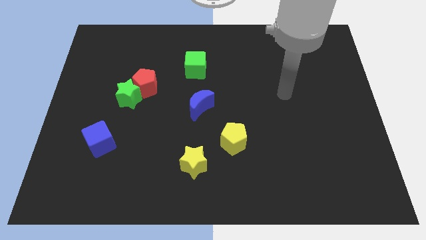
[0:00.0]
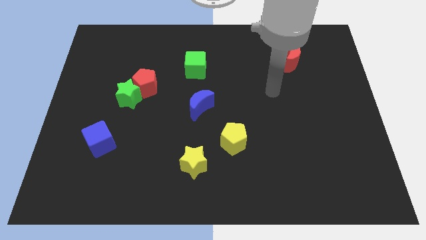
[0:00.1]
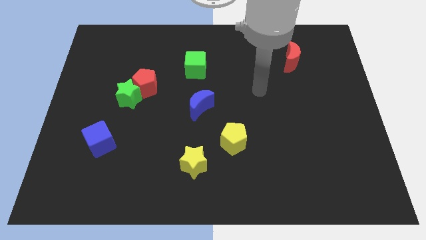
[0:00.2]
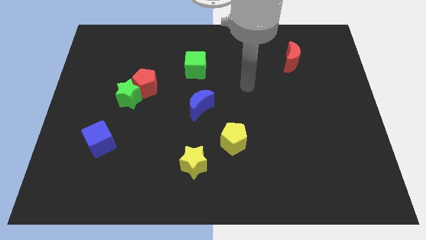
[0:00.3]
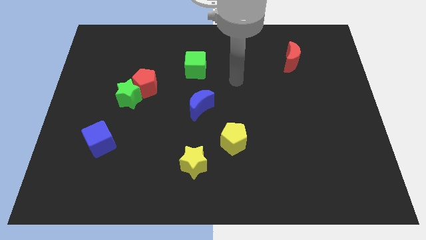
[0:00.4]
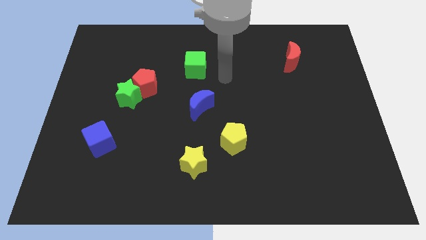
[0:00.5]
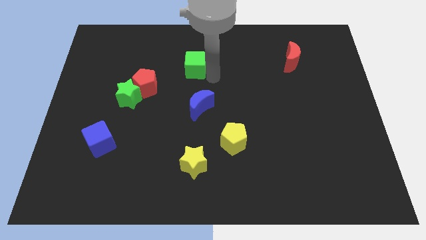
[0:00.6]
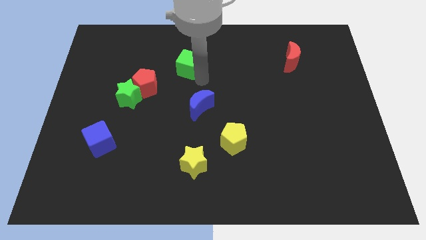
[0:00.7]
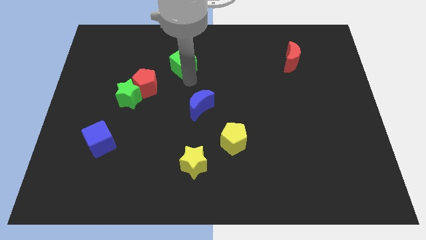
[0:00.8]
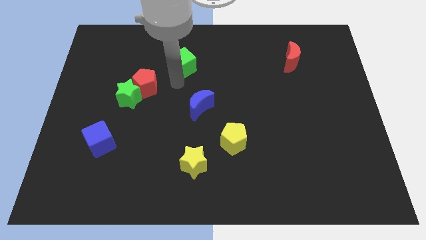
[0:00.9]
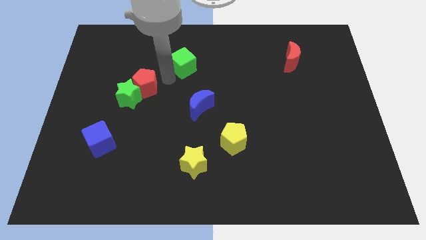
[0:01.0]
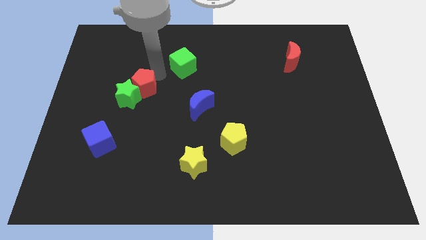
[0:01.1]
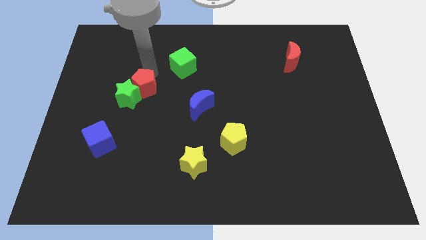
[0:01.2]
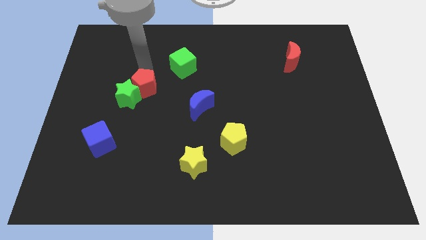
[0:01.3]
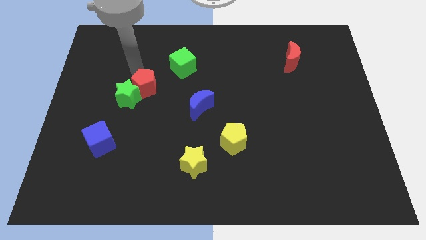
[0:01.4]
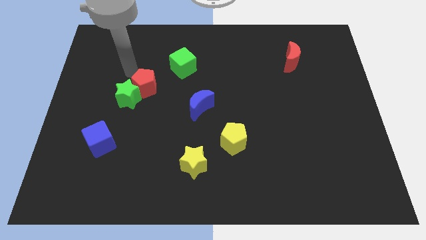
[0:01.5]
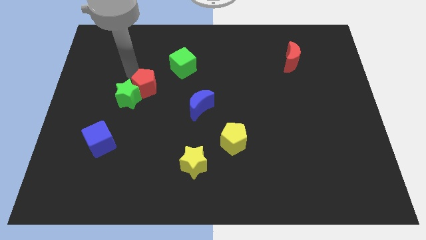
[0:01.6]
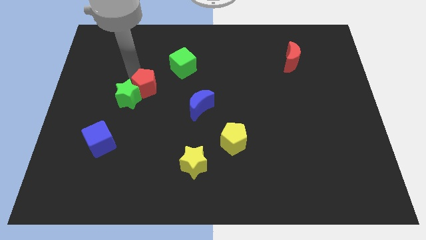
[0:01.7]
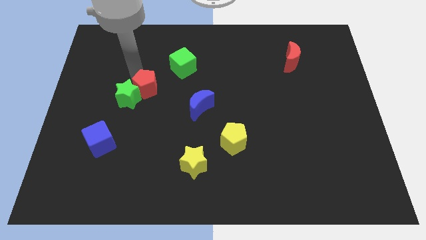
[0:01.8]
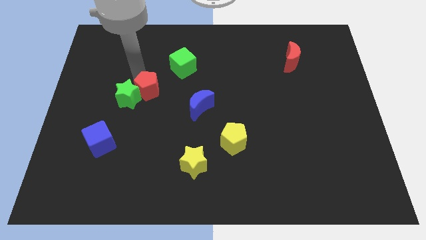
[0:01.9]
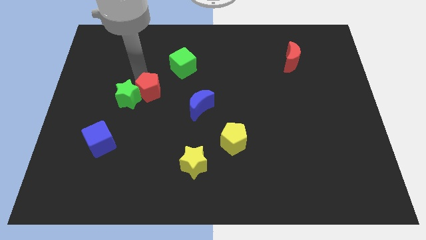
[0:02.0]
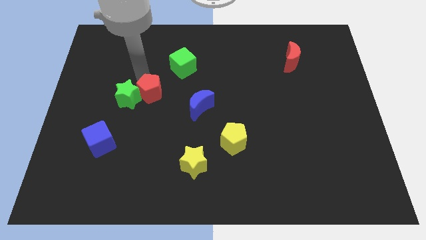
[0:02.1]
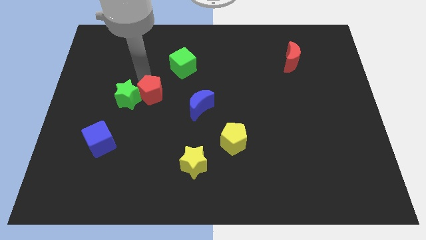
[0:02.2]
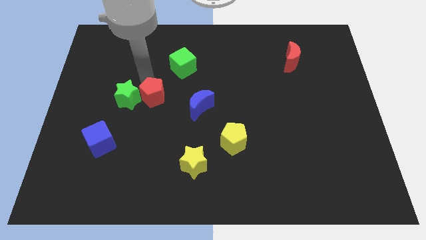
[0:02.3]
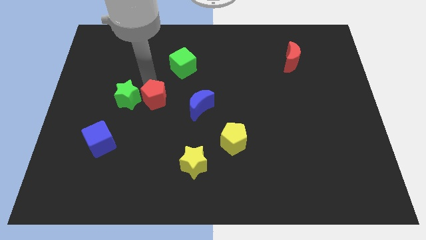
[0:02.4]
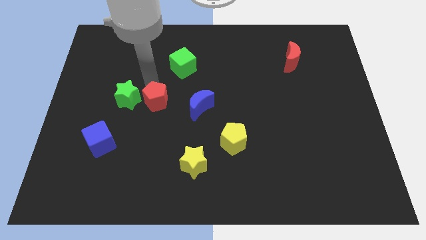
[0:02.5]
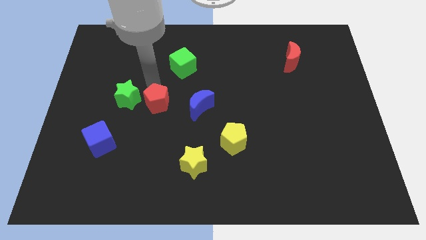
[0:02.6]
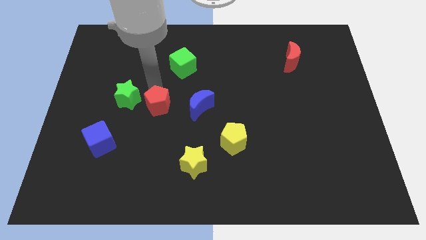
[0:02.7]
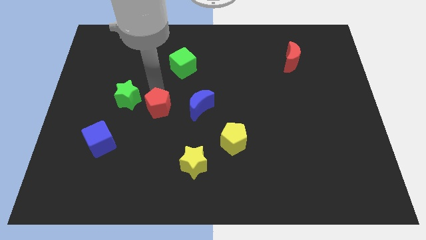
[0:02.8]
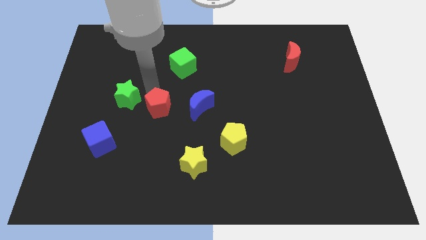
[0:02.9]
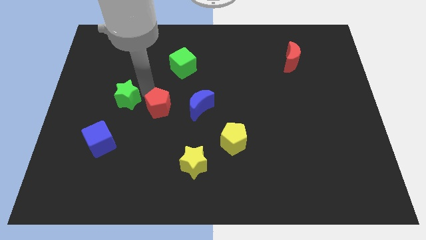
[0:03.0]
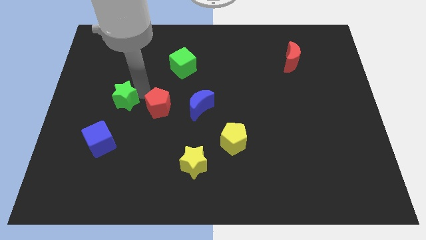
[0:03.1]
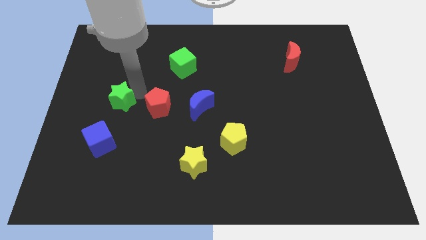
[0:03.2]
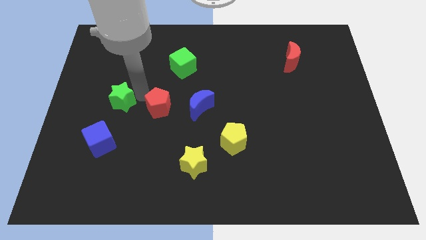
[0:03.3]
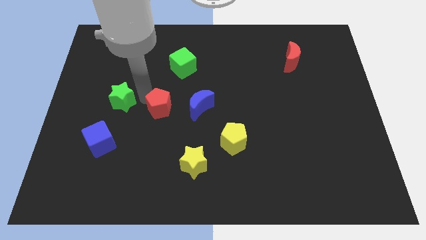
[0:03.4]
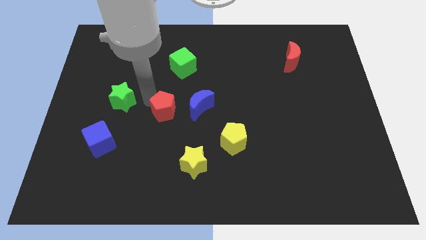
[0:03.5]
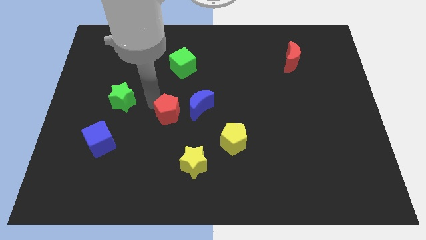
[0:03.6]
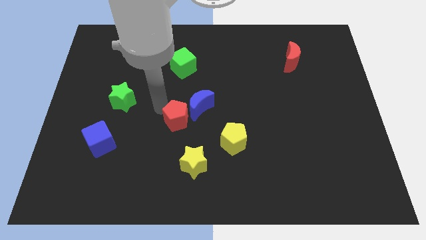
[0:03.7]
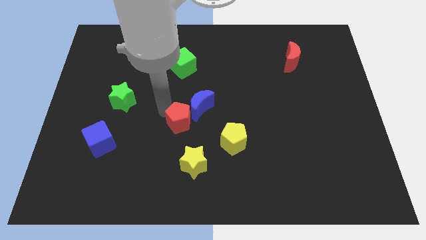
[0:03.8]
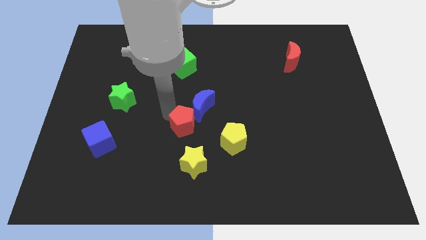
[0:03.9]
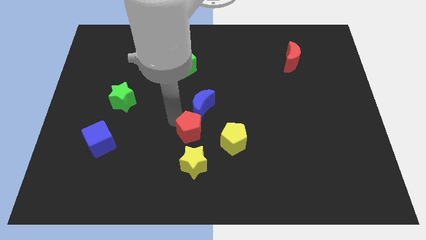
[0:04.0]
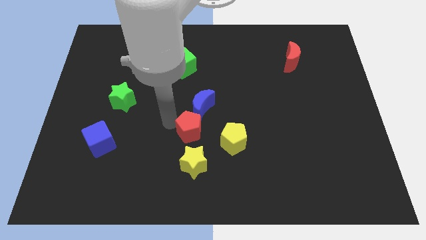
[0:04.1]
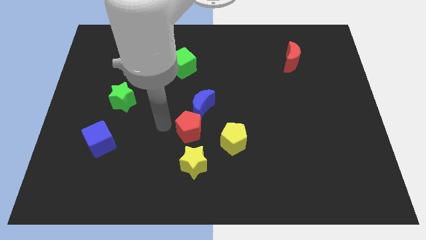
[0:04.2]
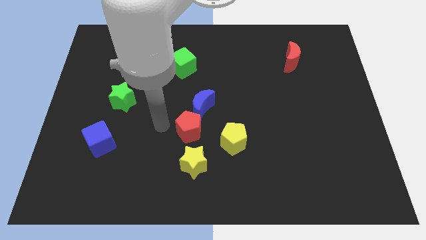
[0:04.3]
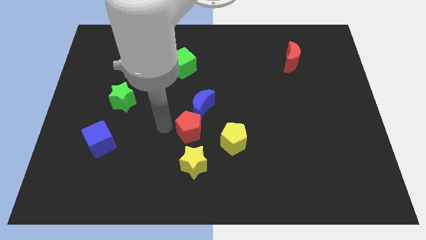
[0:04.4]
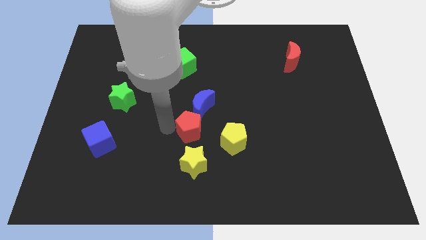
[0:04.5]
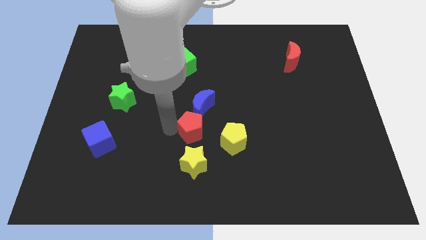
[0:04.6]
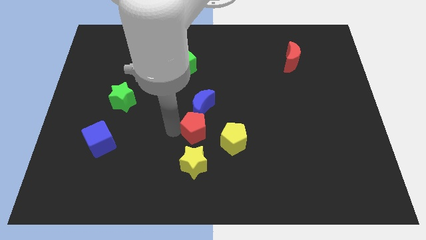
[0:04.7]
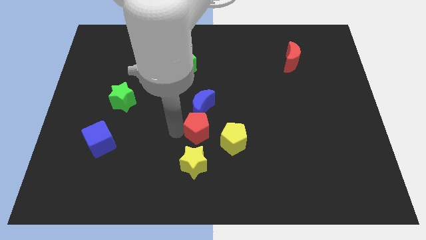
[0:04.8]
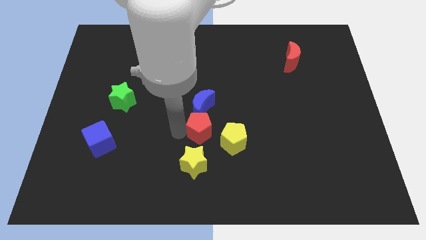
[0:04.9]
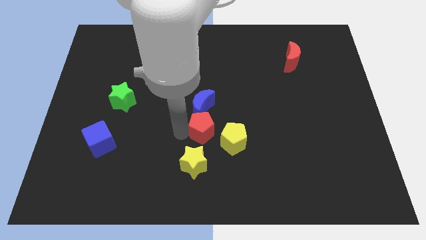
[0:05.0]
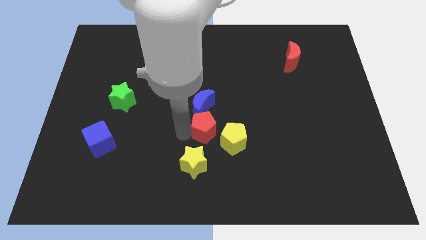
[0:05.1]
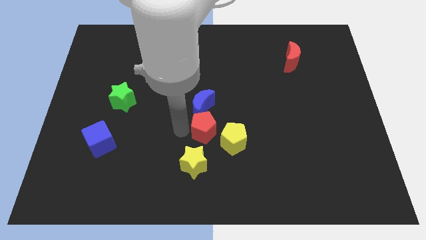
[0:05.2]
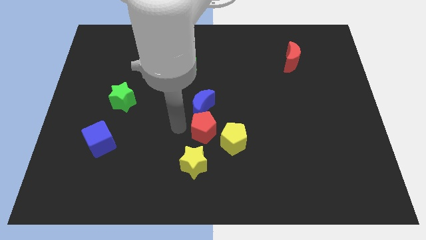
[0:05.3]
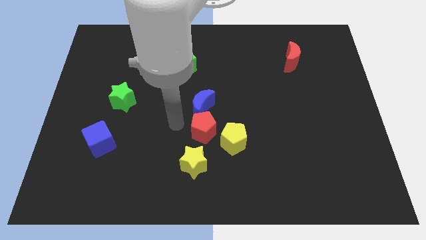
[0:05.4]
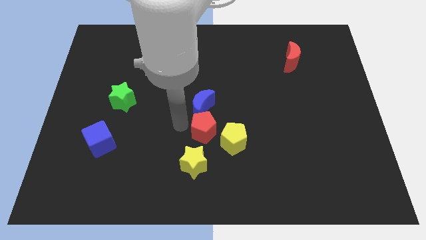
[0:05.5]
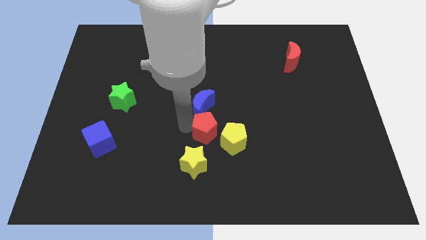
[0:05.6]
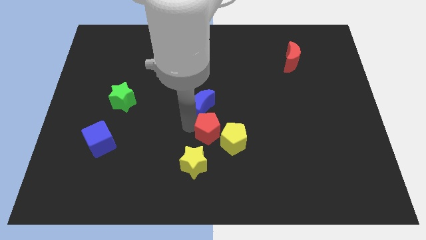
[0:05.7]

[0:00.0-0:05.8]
push the red pentagon close to the yellow pentagon

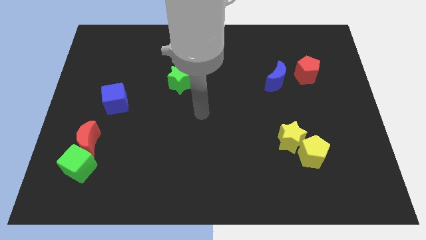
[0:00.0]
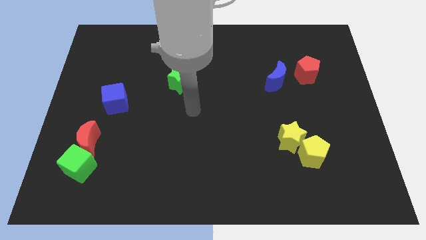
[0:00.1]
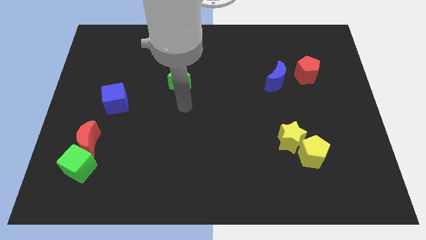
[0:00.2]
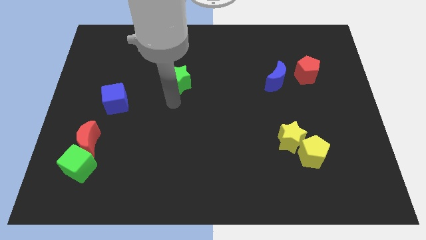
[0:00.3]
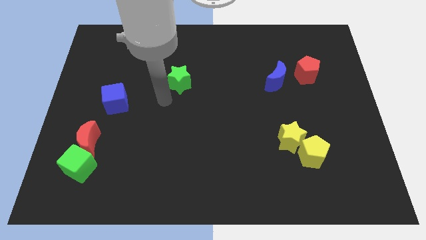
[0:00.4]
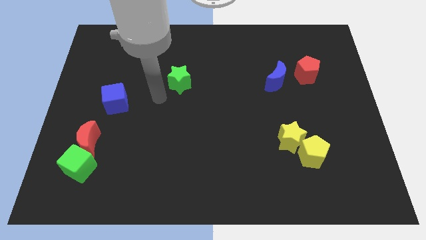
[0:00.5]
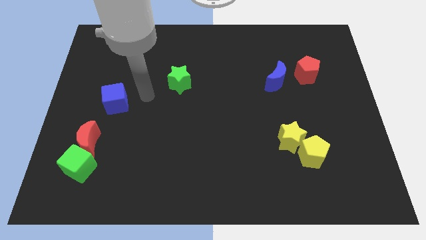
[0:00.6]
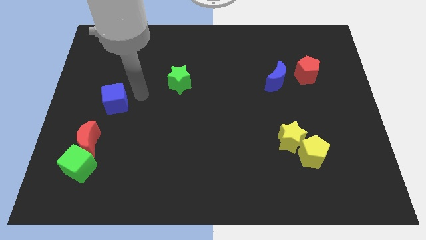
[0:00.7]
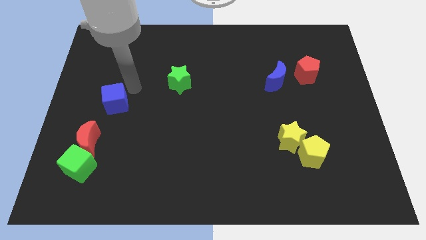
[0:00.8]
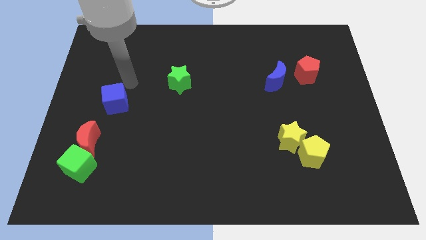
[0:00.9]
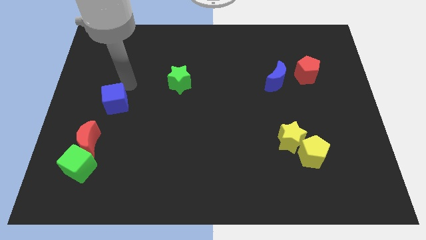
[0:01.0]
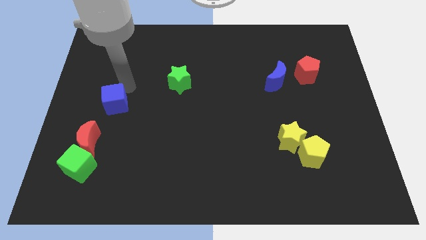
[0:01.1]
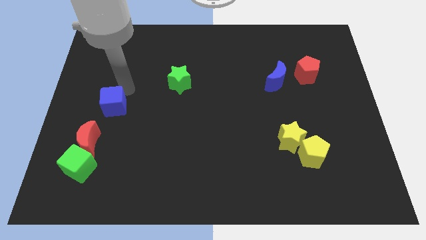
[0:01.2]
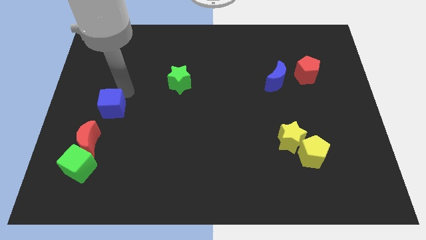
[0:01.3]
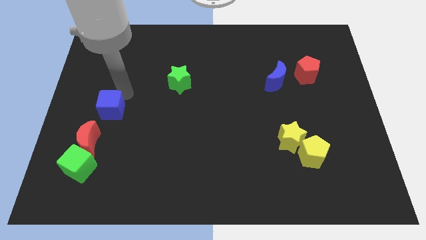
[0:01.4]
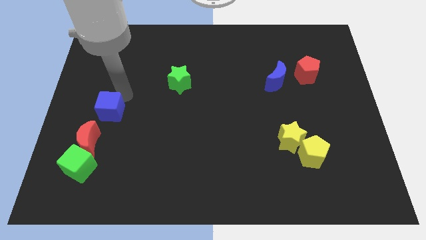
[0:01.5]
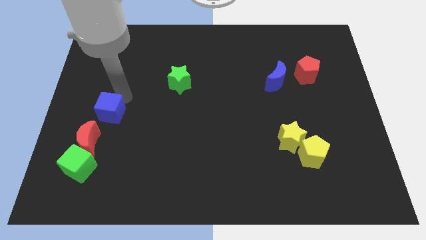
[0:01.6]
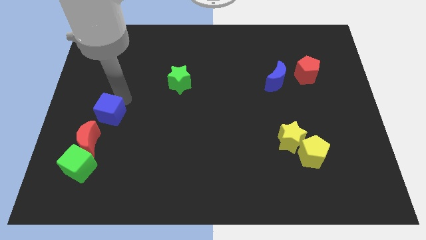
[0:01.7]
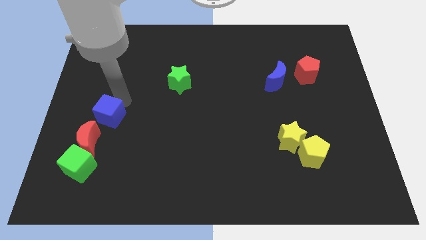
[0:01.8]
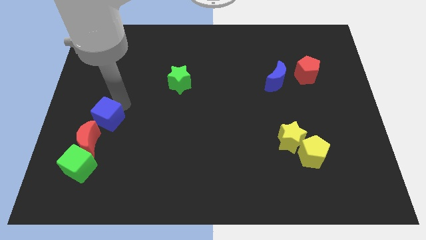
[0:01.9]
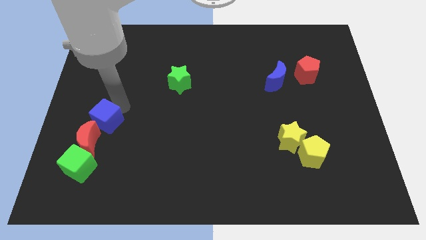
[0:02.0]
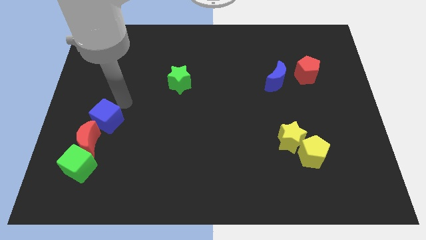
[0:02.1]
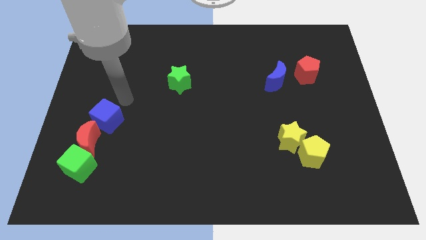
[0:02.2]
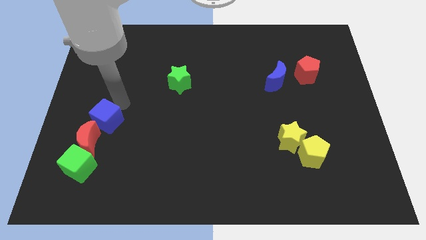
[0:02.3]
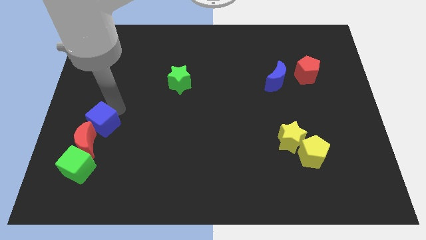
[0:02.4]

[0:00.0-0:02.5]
push the blue cube close to the red moon
